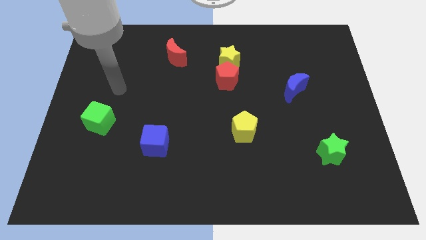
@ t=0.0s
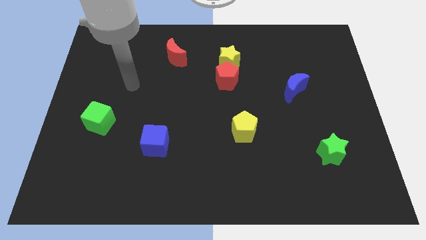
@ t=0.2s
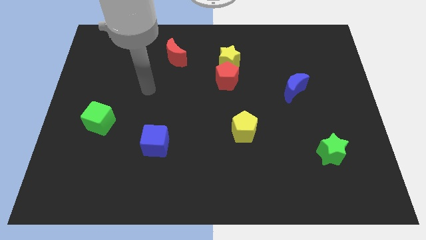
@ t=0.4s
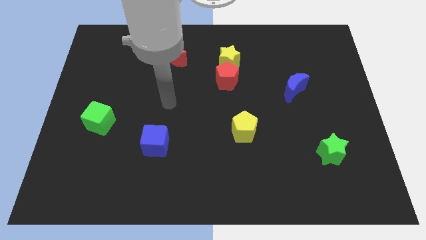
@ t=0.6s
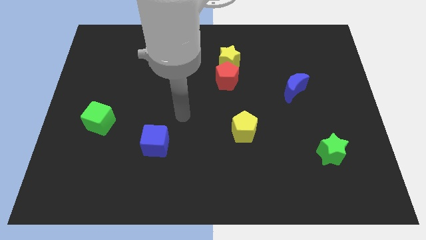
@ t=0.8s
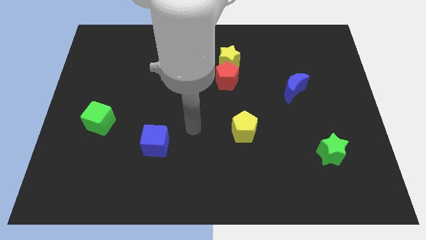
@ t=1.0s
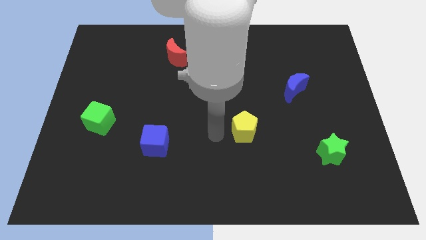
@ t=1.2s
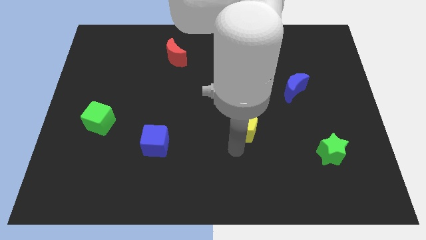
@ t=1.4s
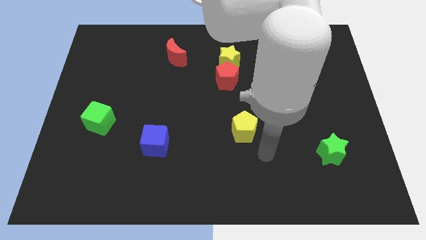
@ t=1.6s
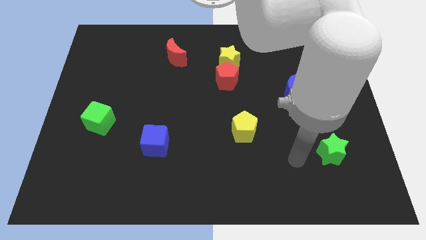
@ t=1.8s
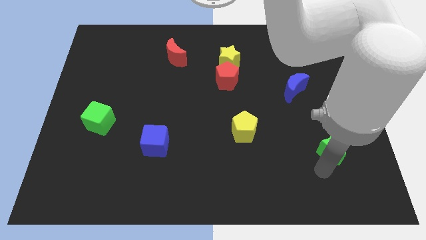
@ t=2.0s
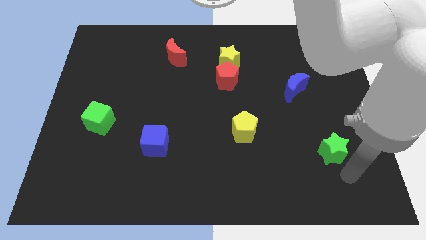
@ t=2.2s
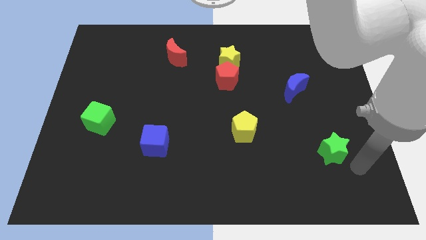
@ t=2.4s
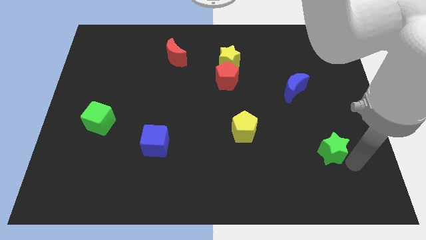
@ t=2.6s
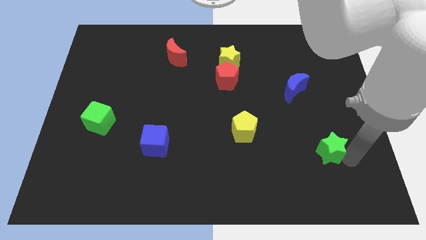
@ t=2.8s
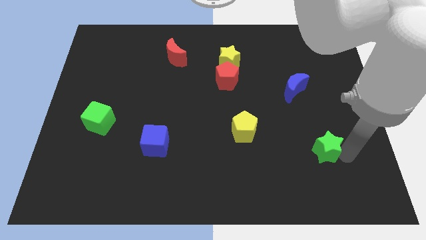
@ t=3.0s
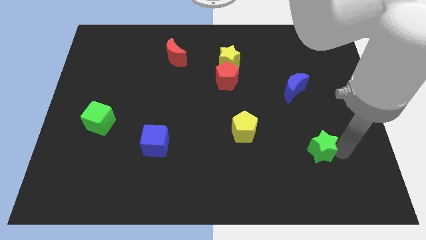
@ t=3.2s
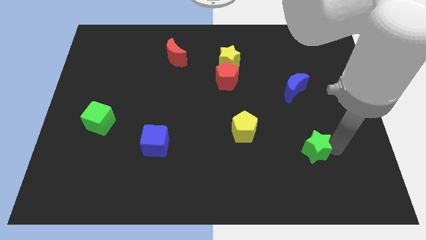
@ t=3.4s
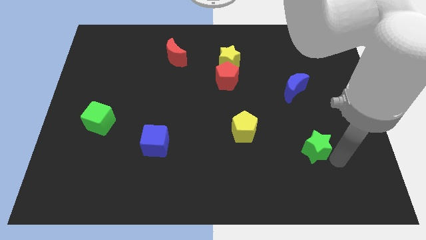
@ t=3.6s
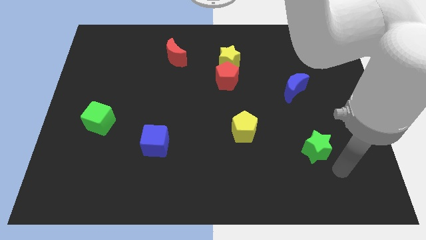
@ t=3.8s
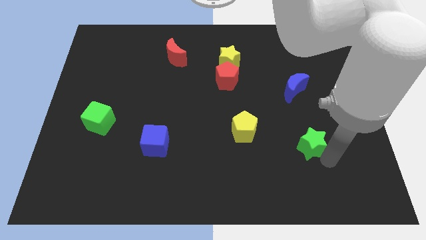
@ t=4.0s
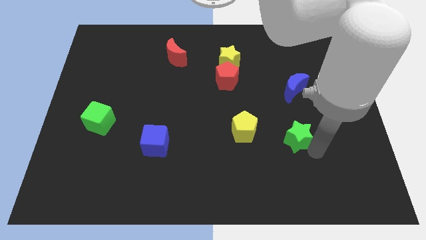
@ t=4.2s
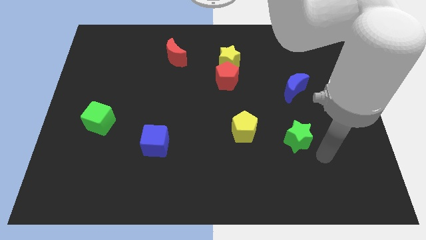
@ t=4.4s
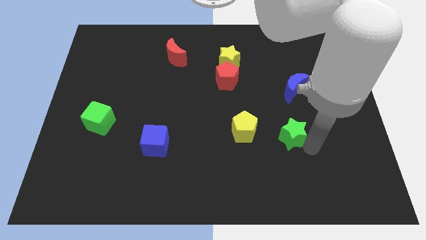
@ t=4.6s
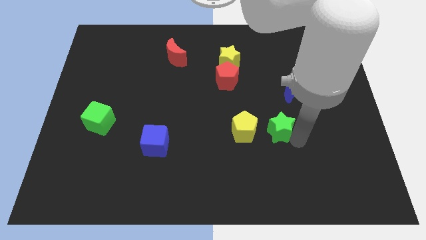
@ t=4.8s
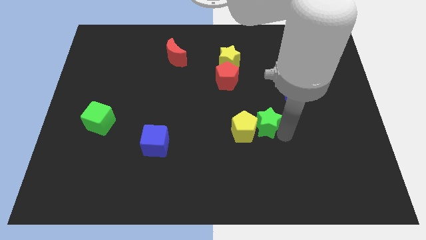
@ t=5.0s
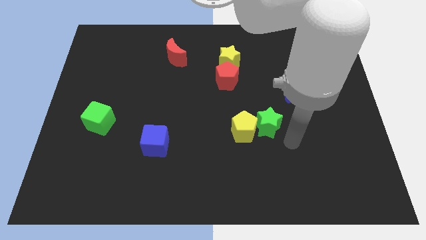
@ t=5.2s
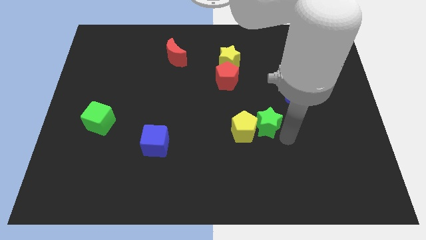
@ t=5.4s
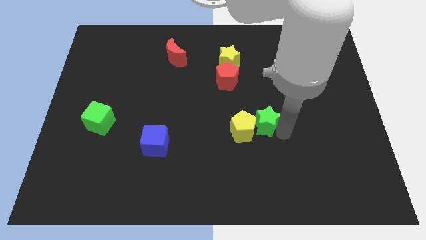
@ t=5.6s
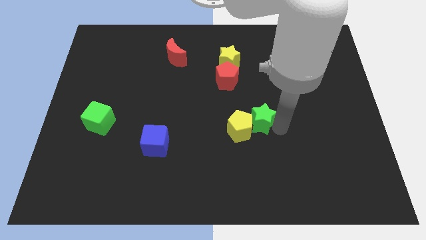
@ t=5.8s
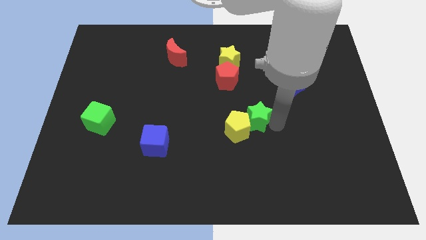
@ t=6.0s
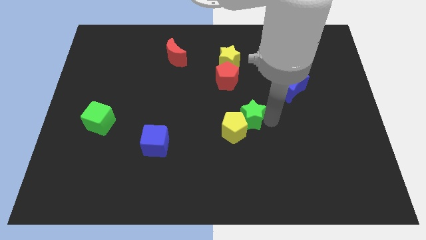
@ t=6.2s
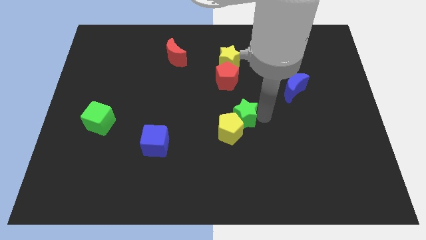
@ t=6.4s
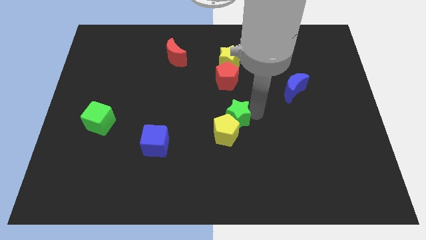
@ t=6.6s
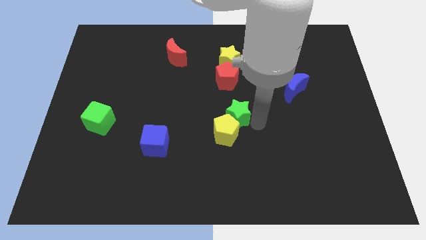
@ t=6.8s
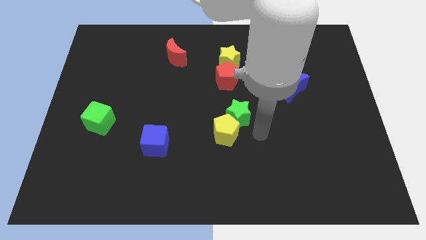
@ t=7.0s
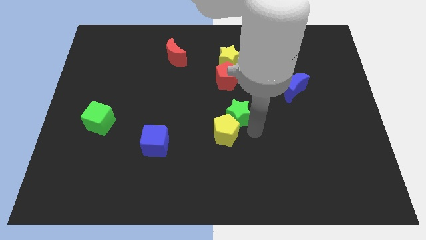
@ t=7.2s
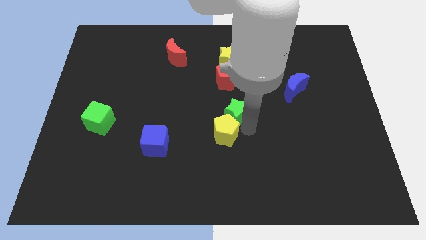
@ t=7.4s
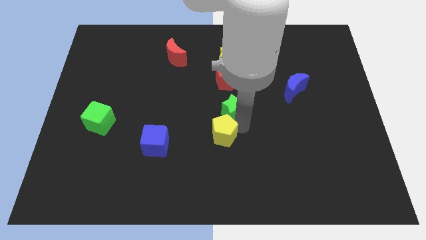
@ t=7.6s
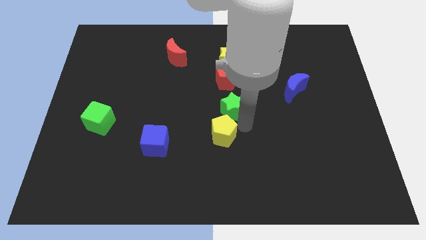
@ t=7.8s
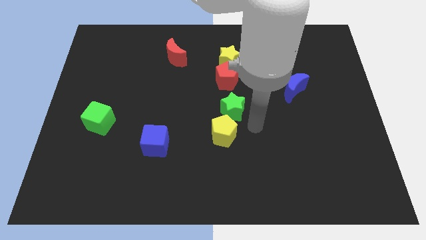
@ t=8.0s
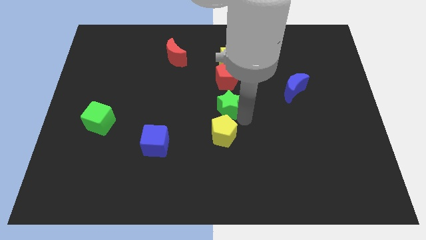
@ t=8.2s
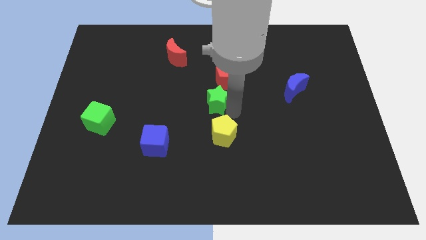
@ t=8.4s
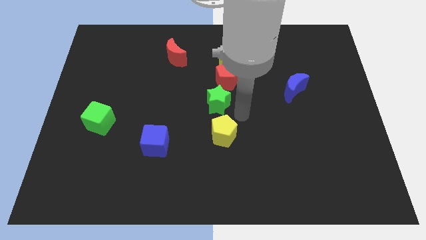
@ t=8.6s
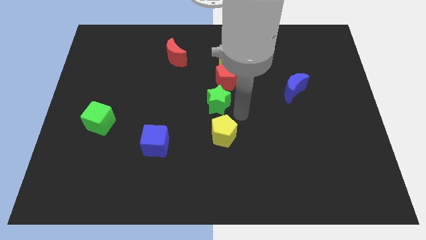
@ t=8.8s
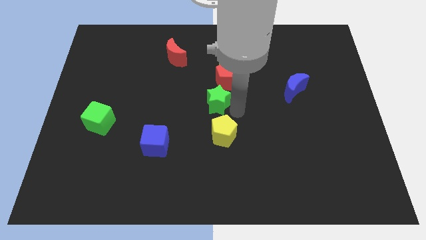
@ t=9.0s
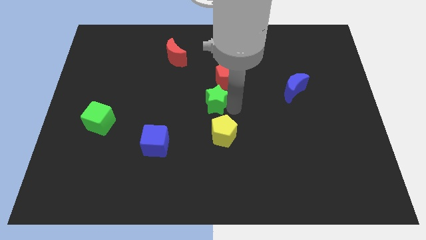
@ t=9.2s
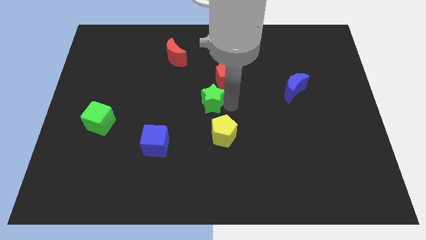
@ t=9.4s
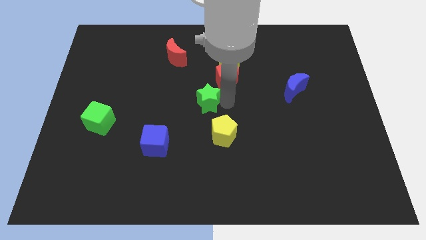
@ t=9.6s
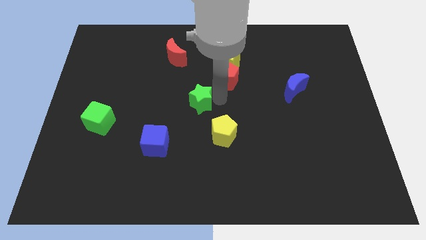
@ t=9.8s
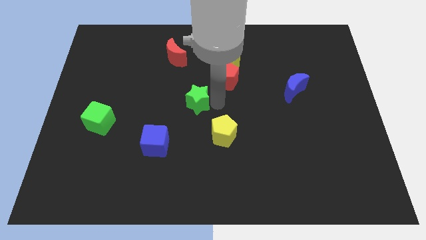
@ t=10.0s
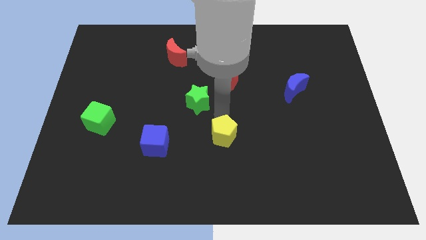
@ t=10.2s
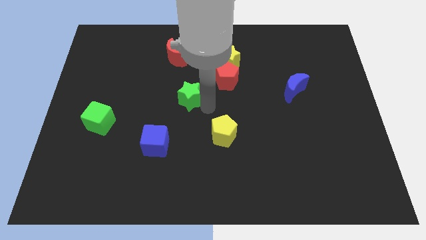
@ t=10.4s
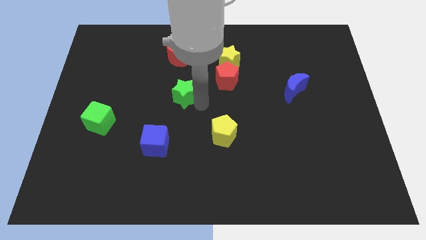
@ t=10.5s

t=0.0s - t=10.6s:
put the green star below the red moon

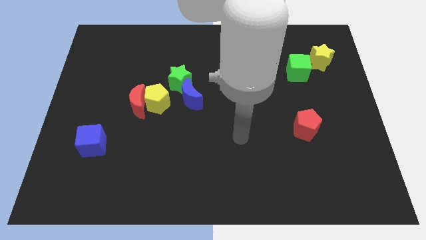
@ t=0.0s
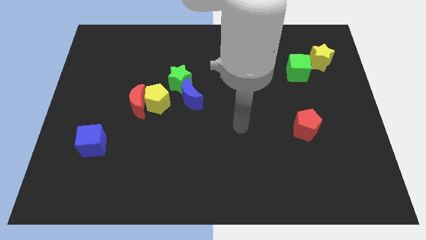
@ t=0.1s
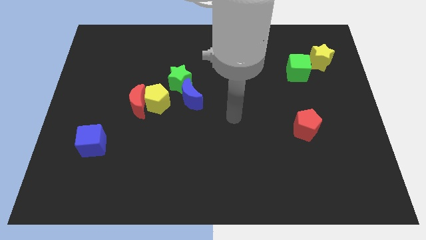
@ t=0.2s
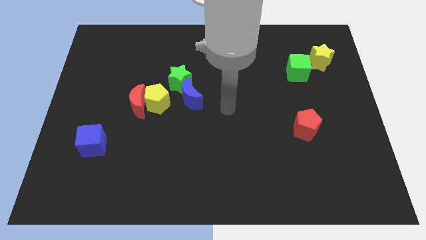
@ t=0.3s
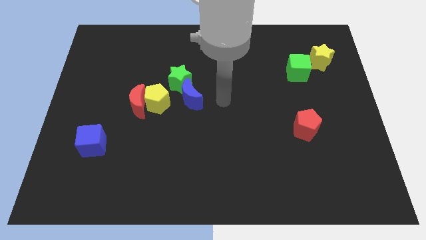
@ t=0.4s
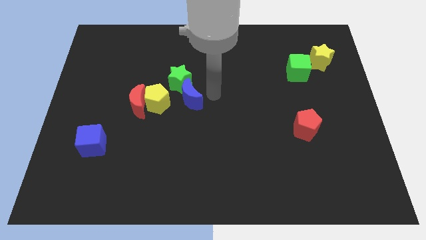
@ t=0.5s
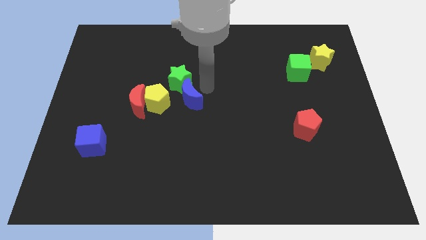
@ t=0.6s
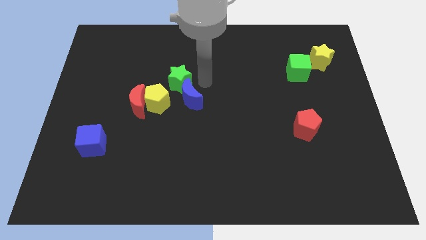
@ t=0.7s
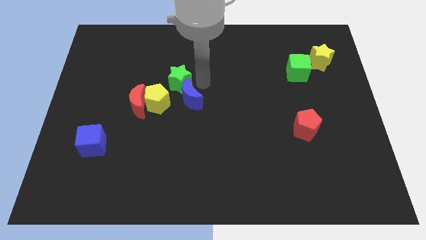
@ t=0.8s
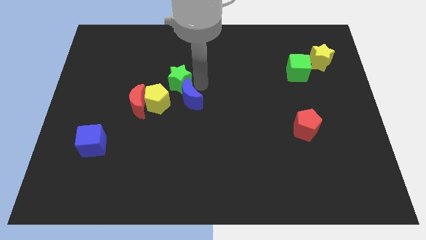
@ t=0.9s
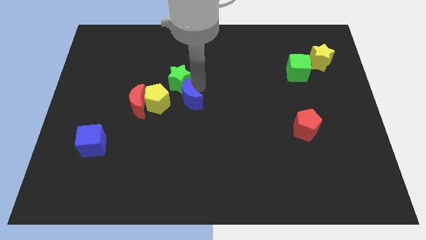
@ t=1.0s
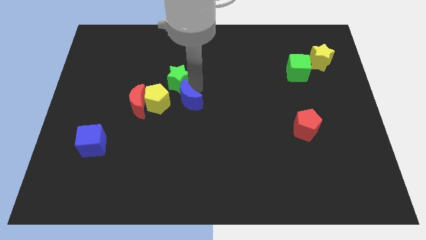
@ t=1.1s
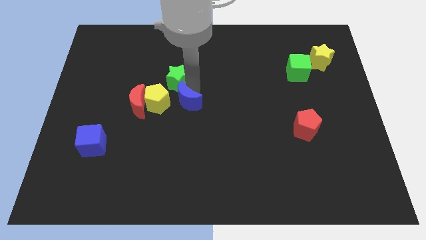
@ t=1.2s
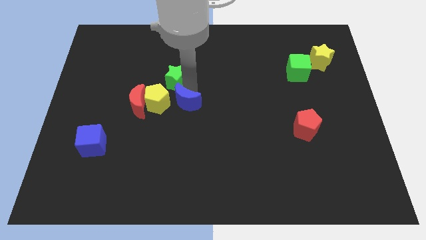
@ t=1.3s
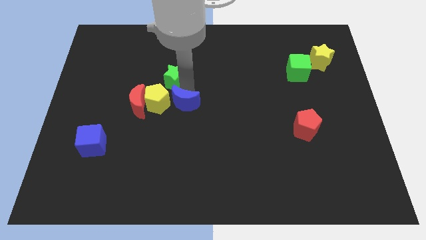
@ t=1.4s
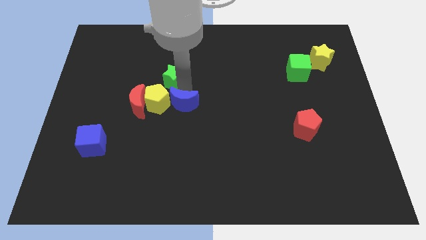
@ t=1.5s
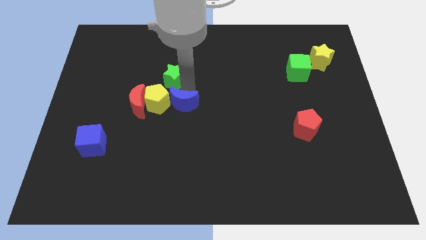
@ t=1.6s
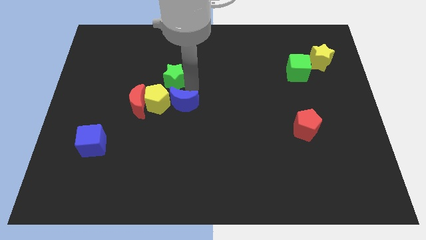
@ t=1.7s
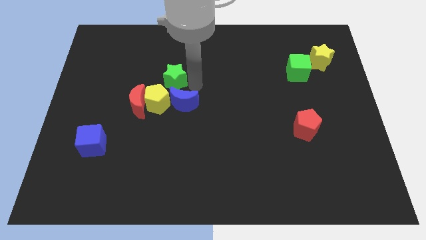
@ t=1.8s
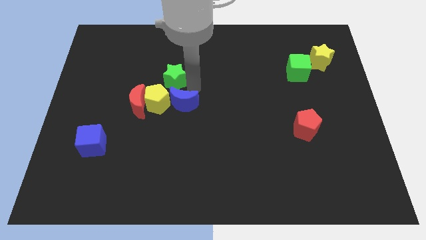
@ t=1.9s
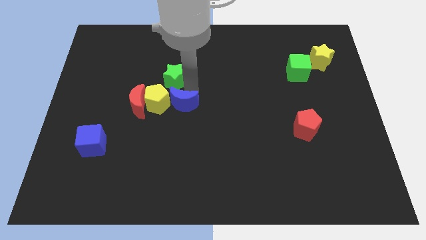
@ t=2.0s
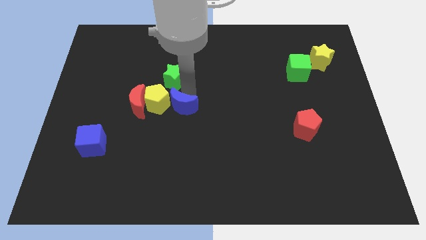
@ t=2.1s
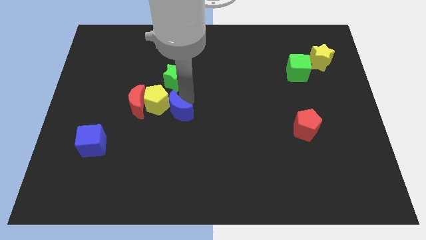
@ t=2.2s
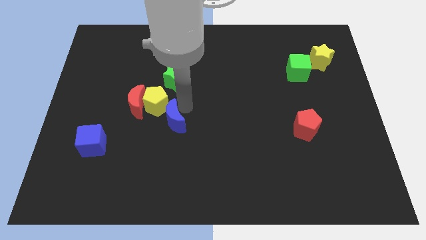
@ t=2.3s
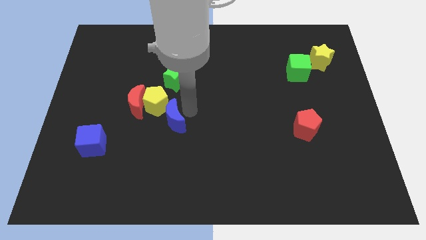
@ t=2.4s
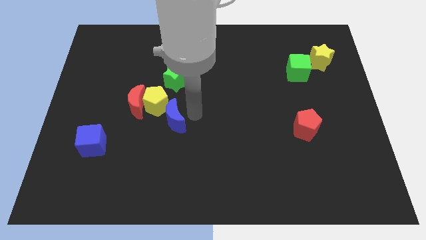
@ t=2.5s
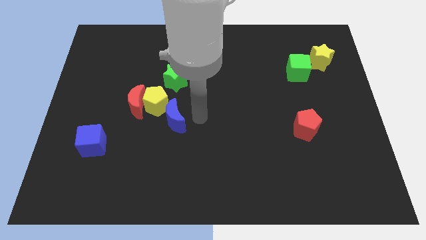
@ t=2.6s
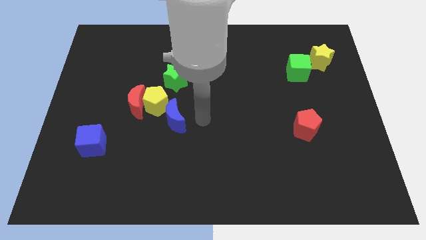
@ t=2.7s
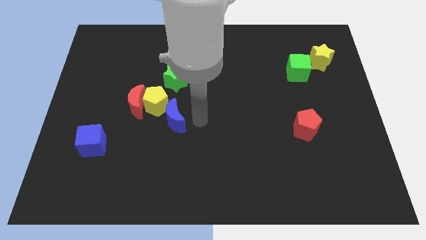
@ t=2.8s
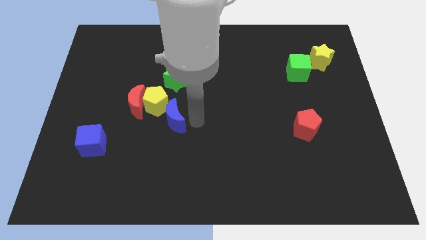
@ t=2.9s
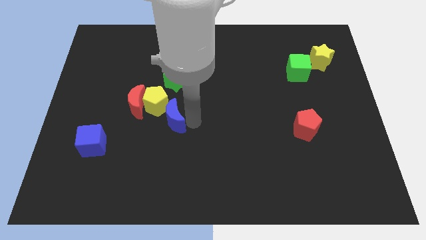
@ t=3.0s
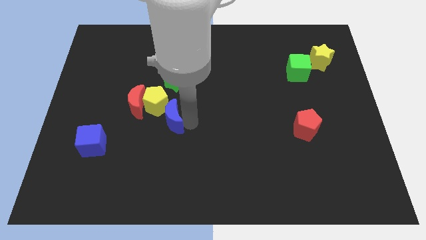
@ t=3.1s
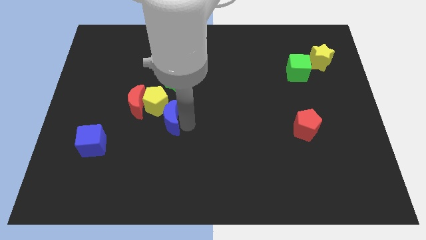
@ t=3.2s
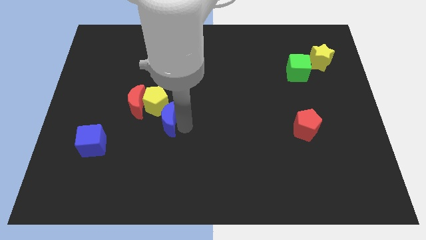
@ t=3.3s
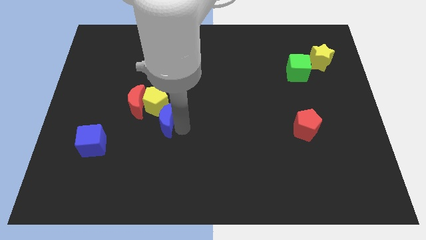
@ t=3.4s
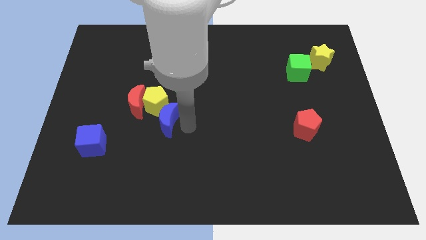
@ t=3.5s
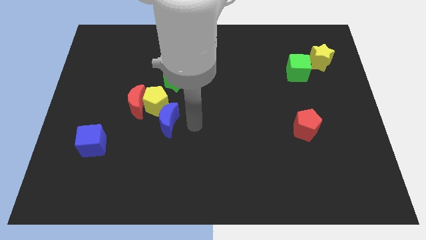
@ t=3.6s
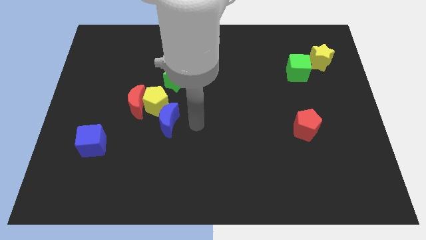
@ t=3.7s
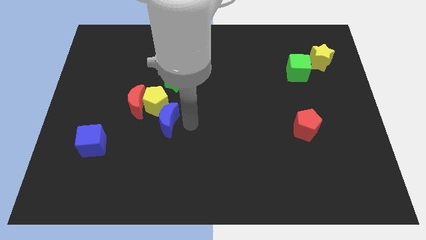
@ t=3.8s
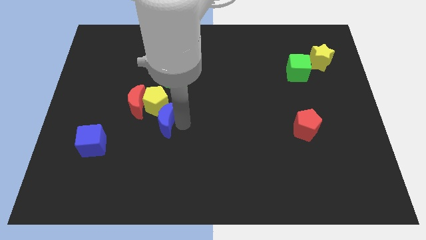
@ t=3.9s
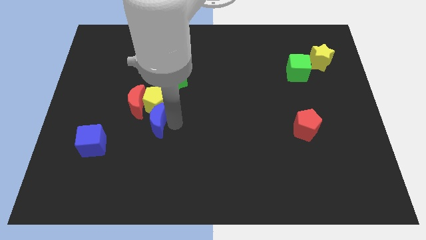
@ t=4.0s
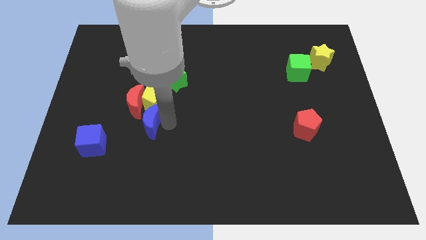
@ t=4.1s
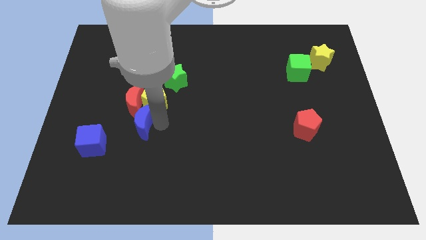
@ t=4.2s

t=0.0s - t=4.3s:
push the blue moon to the top right of the blue cube
